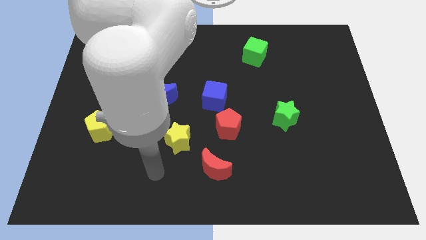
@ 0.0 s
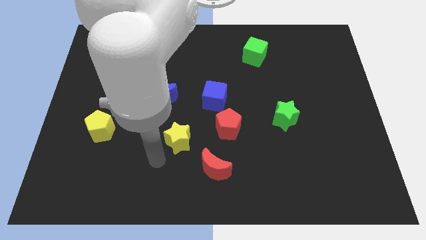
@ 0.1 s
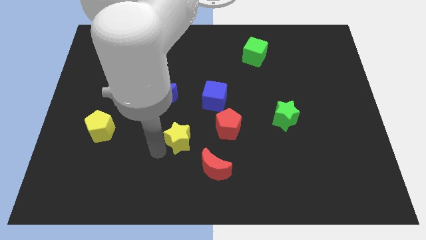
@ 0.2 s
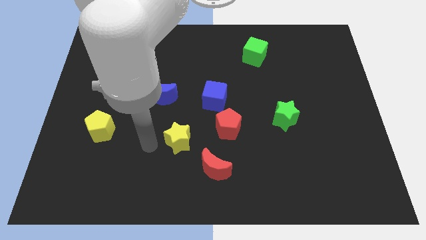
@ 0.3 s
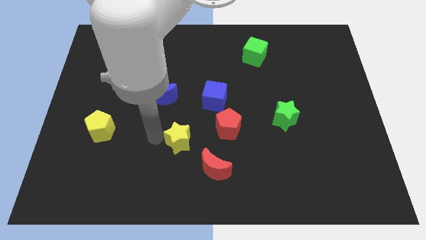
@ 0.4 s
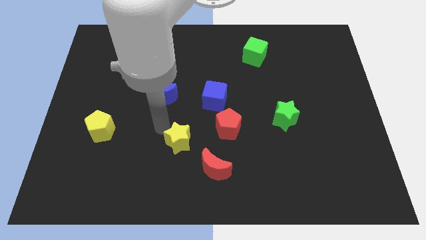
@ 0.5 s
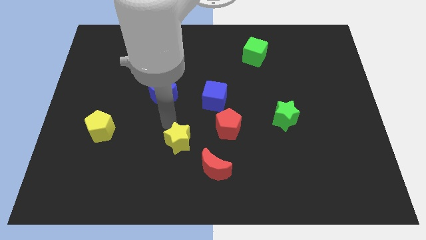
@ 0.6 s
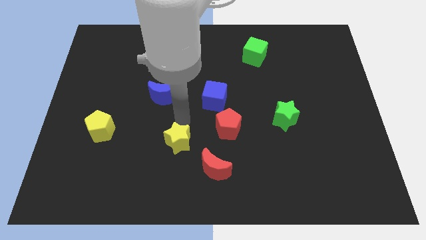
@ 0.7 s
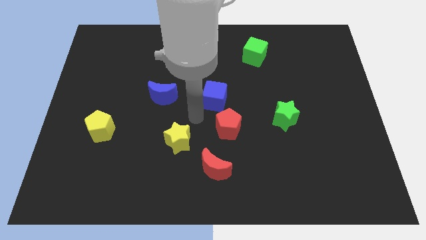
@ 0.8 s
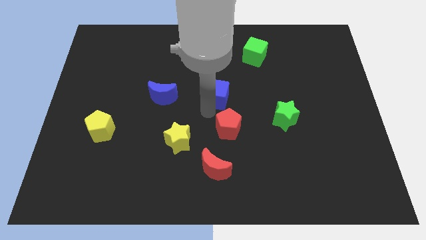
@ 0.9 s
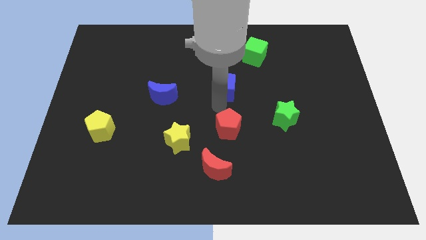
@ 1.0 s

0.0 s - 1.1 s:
move the red pentagon away from the blue cube

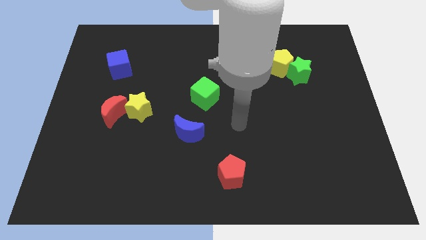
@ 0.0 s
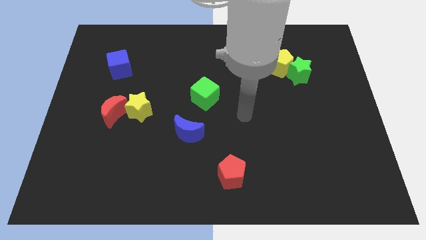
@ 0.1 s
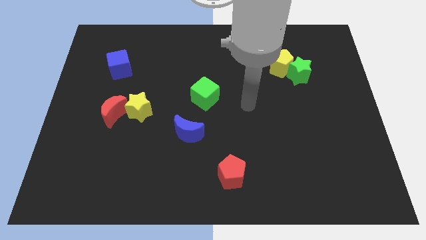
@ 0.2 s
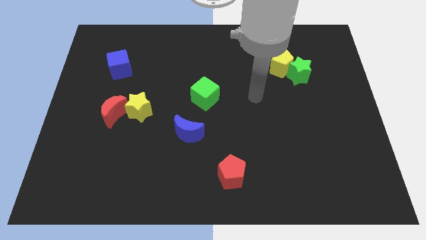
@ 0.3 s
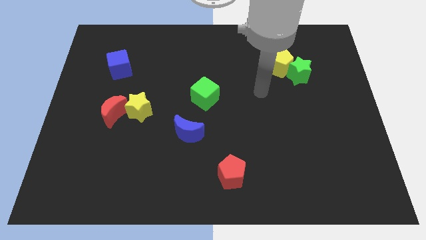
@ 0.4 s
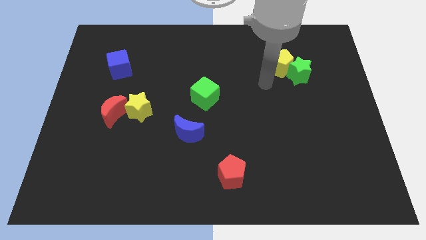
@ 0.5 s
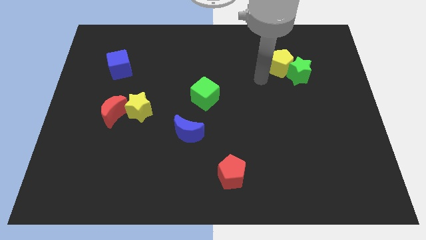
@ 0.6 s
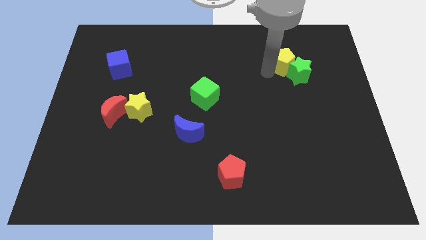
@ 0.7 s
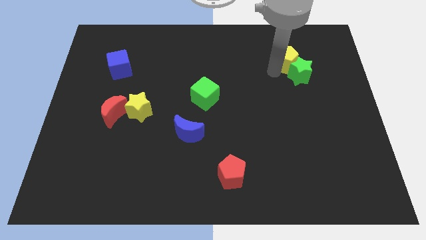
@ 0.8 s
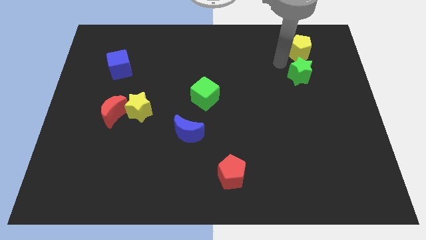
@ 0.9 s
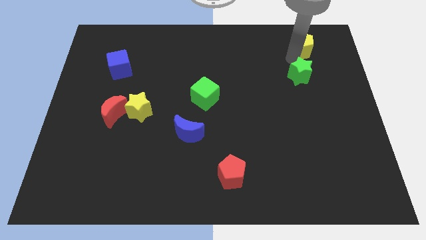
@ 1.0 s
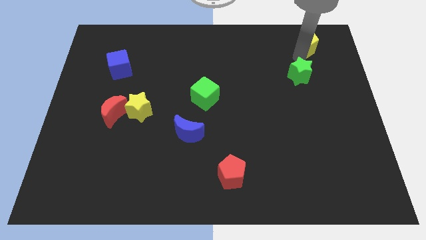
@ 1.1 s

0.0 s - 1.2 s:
separate the green star from the yellow pentagon

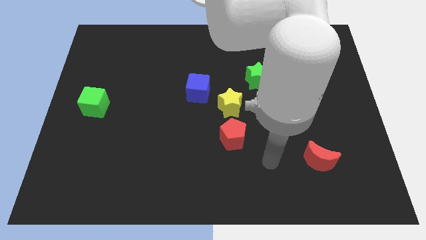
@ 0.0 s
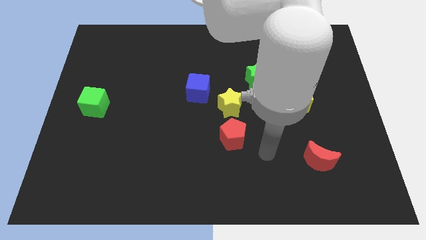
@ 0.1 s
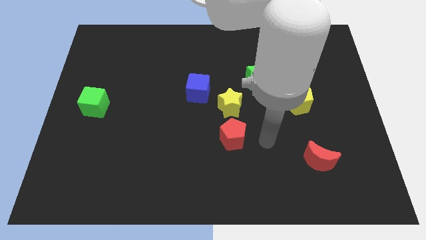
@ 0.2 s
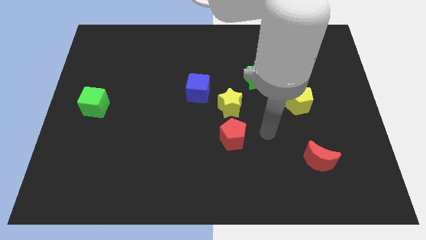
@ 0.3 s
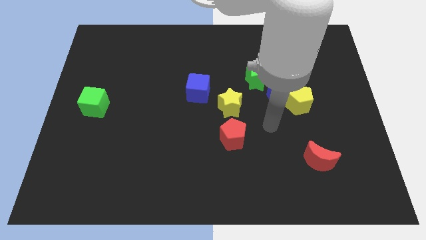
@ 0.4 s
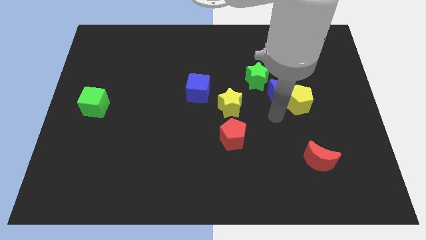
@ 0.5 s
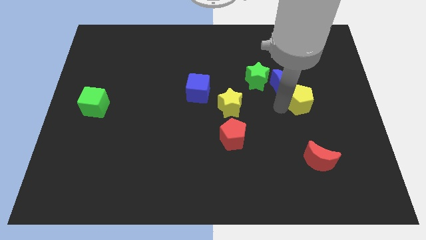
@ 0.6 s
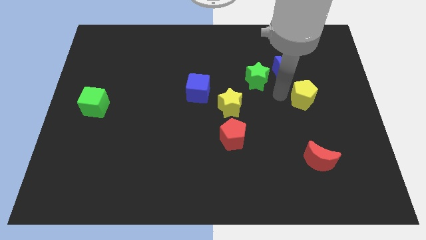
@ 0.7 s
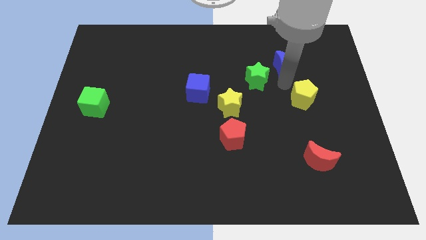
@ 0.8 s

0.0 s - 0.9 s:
move the yellow pentagon away from the blue moon

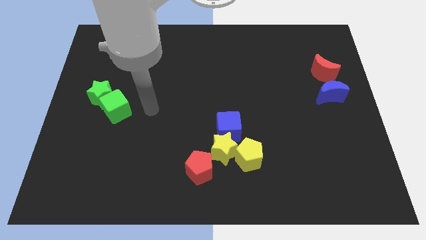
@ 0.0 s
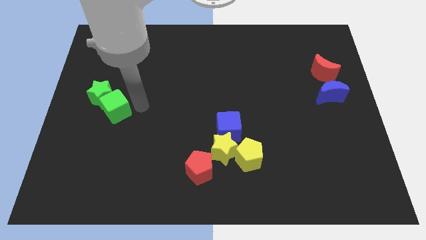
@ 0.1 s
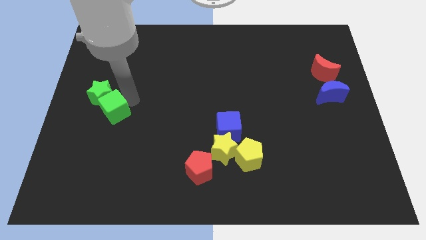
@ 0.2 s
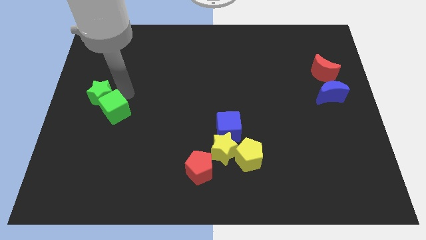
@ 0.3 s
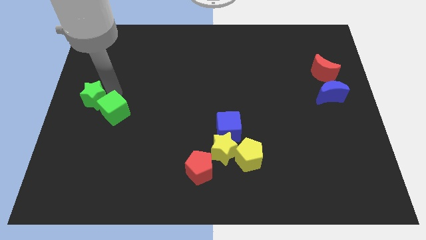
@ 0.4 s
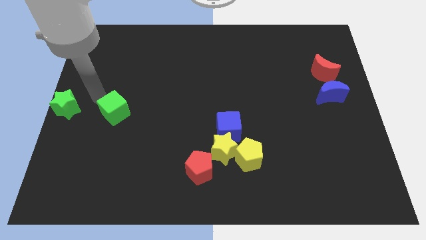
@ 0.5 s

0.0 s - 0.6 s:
move the green cube away from the green star

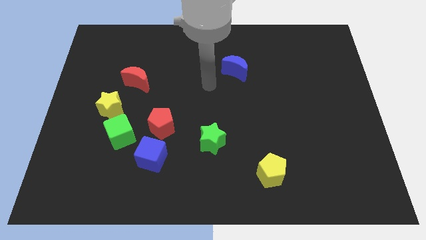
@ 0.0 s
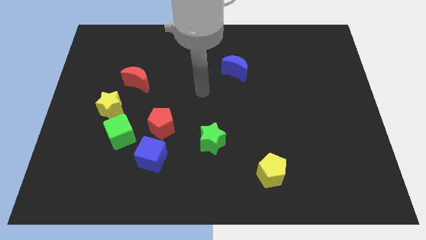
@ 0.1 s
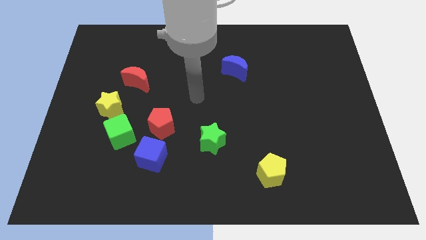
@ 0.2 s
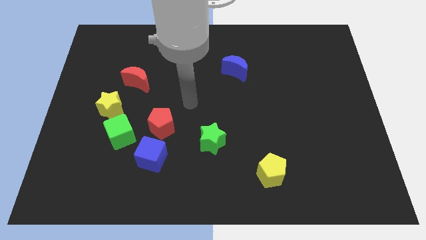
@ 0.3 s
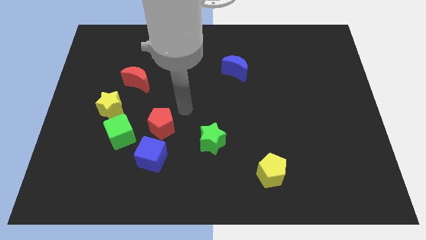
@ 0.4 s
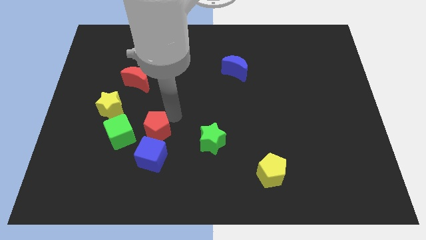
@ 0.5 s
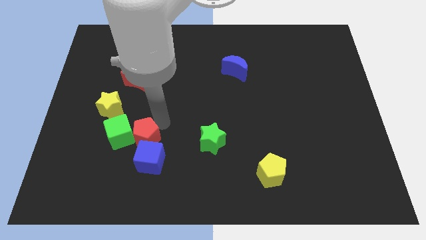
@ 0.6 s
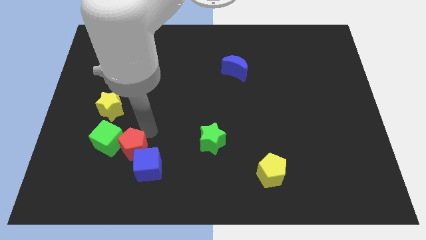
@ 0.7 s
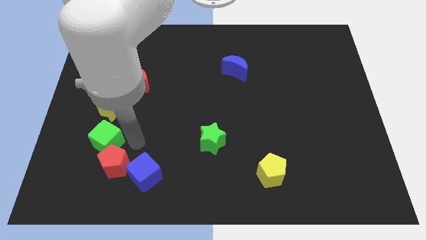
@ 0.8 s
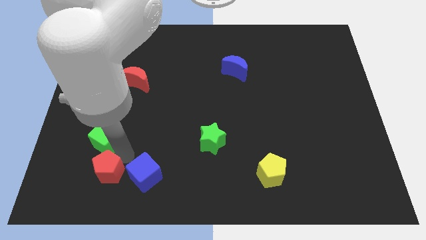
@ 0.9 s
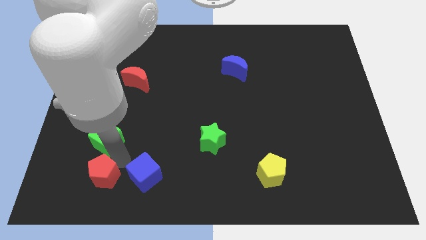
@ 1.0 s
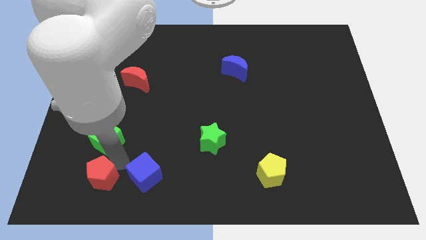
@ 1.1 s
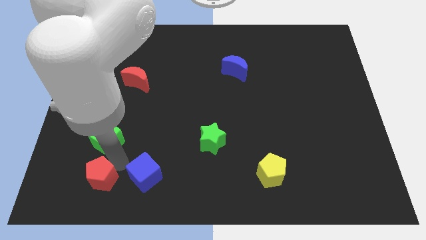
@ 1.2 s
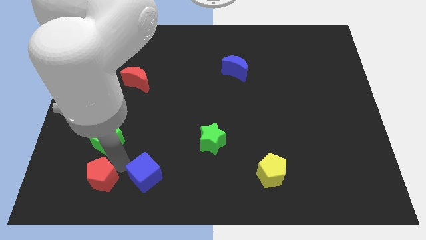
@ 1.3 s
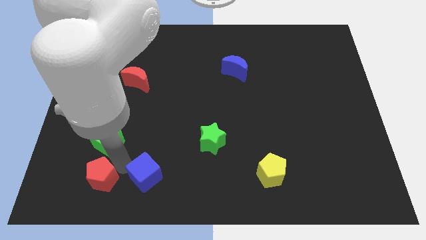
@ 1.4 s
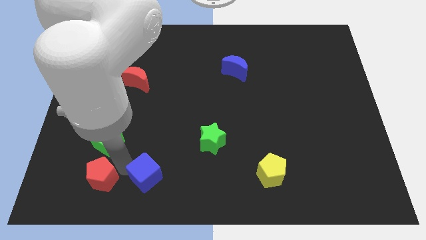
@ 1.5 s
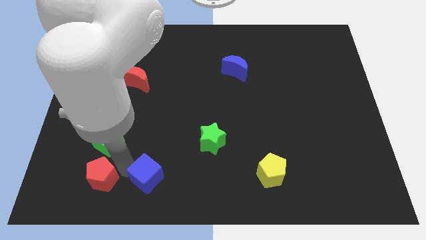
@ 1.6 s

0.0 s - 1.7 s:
move the blue cube away from the red pentagon and green cube

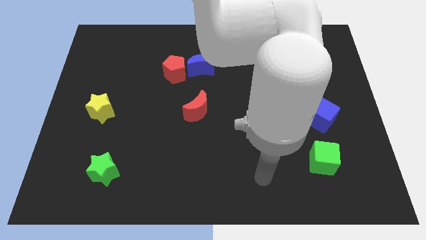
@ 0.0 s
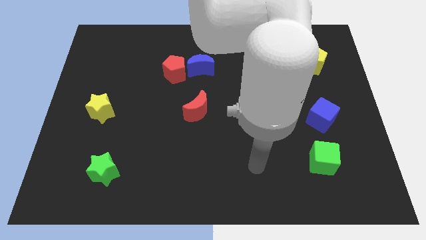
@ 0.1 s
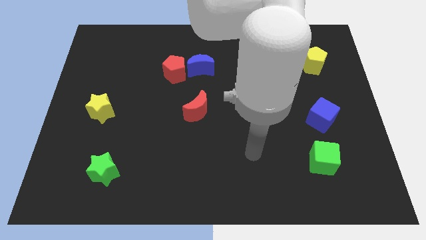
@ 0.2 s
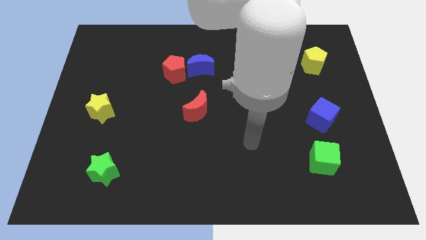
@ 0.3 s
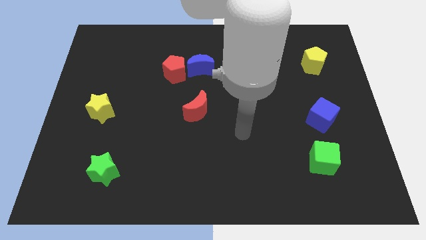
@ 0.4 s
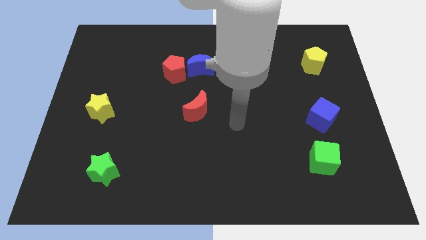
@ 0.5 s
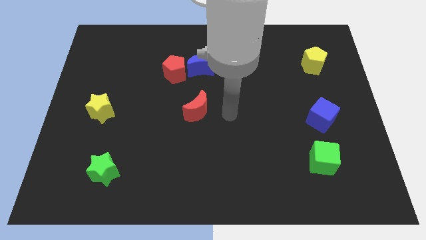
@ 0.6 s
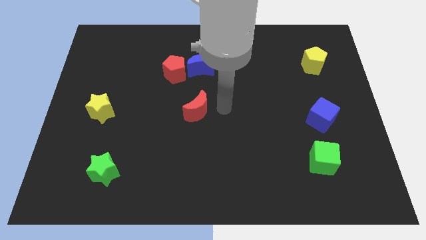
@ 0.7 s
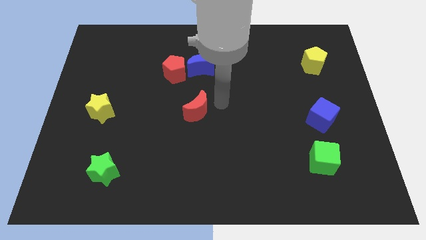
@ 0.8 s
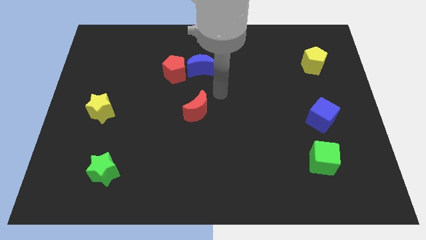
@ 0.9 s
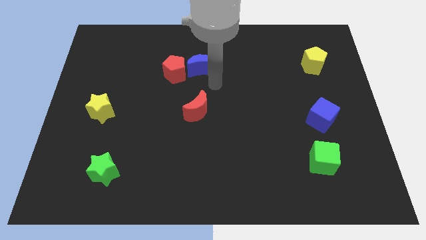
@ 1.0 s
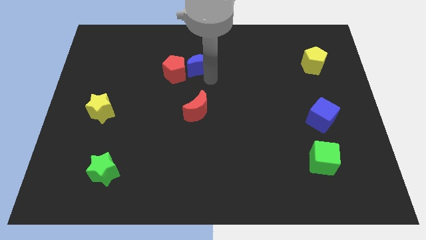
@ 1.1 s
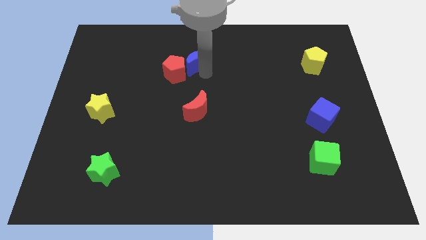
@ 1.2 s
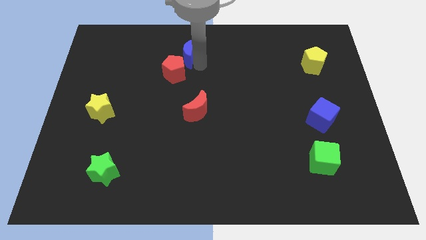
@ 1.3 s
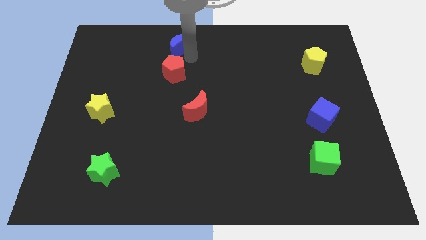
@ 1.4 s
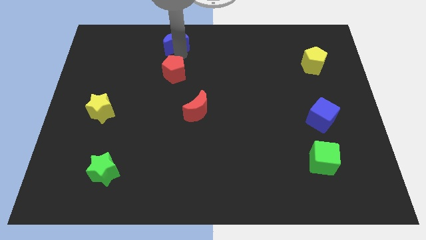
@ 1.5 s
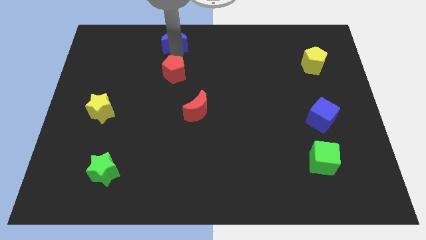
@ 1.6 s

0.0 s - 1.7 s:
separate the red pentagon from the blue moon

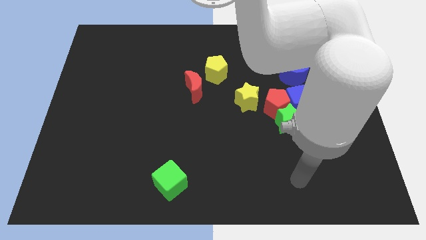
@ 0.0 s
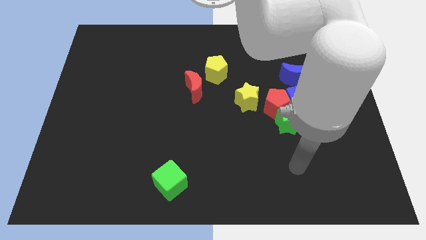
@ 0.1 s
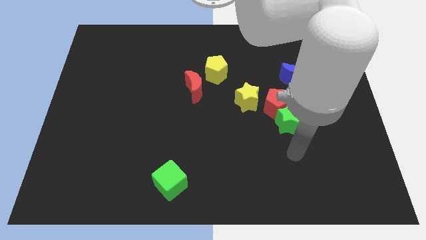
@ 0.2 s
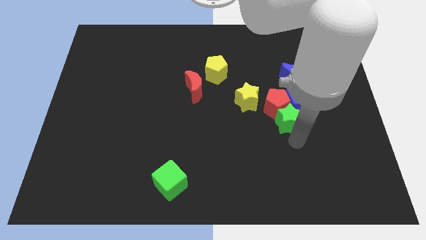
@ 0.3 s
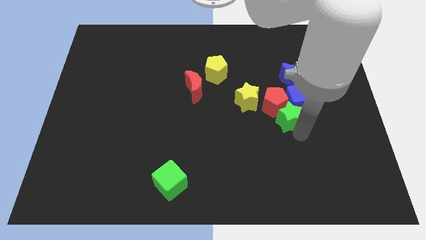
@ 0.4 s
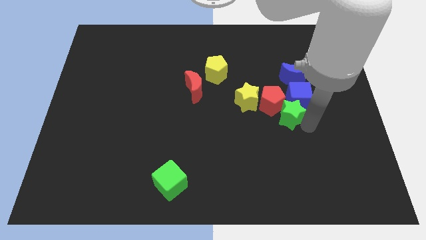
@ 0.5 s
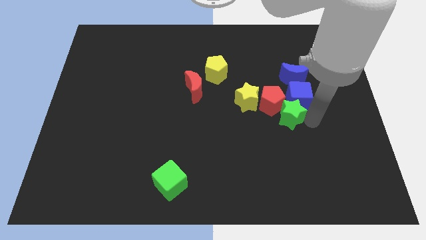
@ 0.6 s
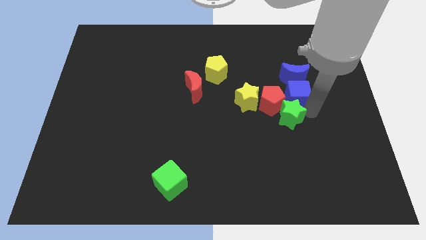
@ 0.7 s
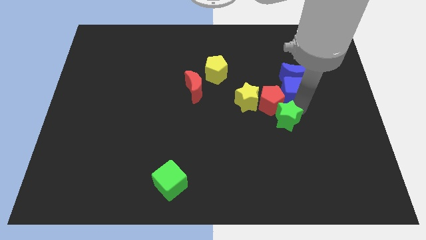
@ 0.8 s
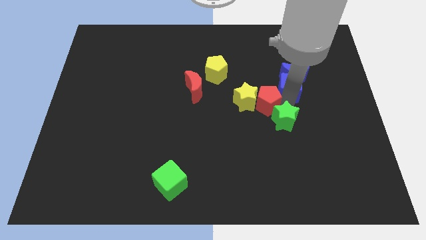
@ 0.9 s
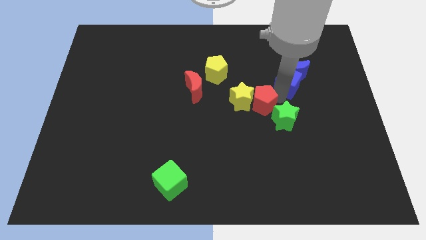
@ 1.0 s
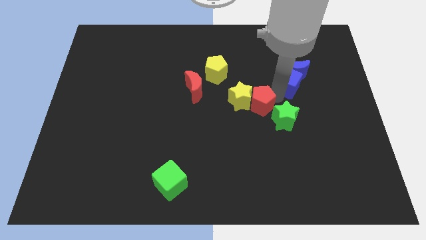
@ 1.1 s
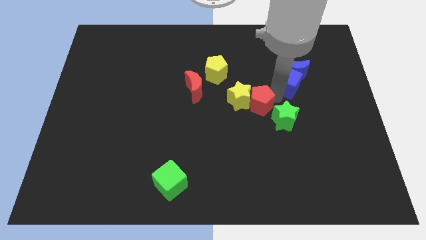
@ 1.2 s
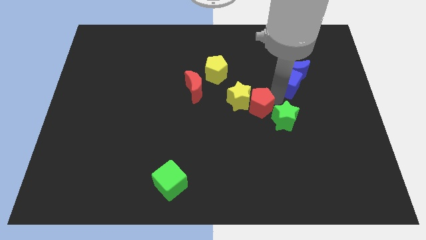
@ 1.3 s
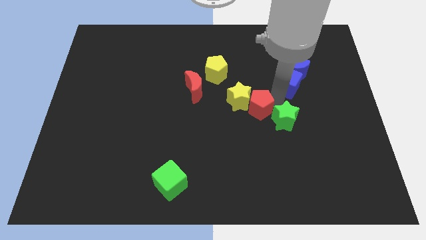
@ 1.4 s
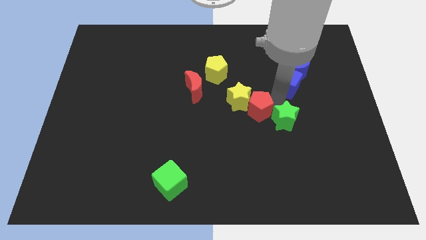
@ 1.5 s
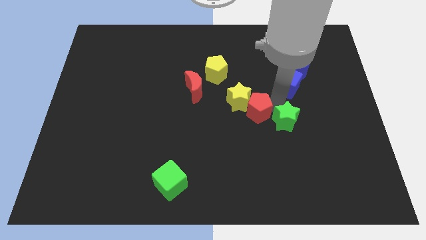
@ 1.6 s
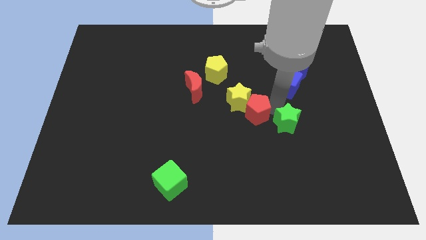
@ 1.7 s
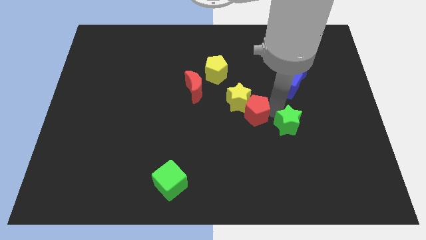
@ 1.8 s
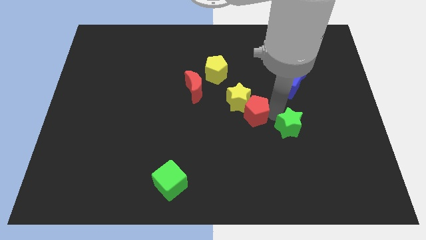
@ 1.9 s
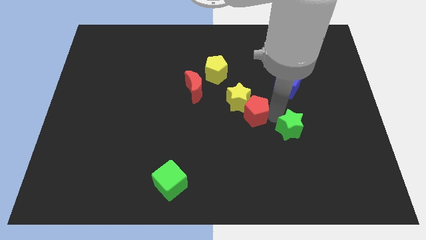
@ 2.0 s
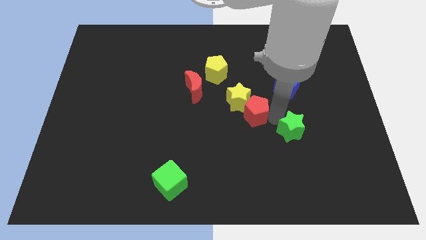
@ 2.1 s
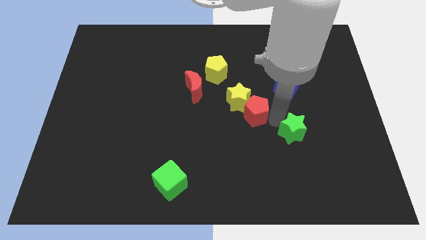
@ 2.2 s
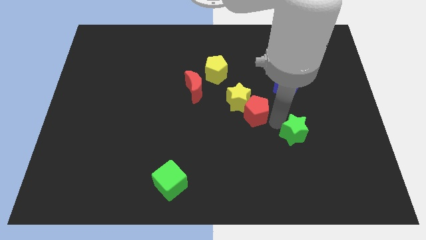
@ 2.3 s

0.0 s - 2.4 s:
pull the green star apart from the red pentagon and blue cube
